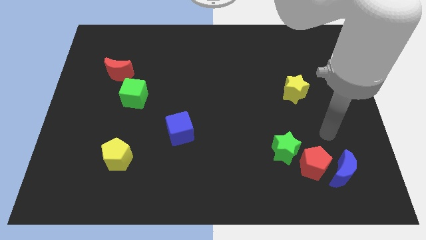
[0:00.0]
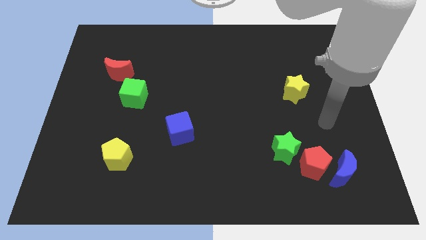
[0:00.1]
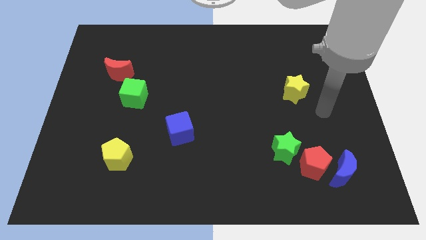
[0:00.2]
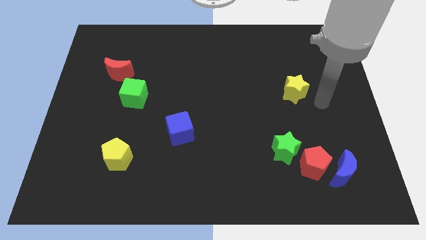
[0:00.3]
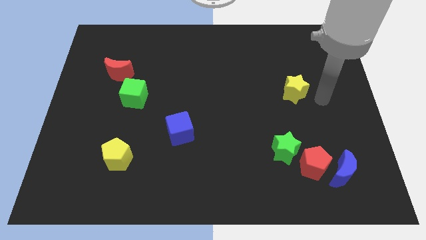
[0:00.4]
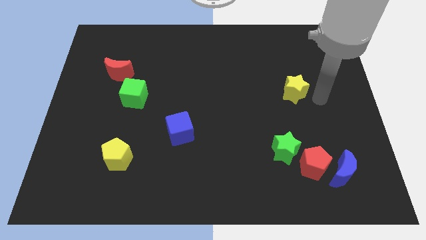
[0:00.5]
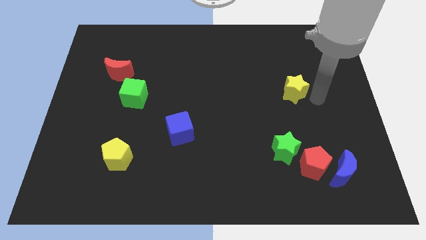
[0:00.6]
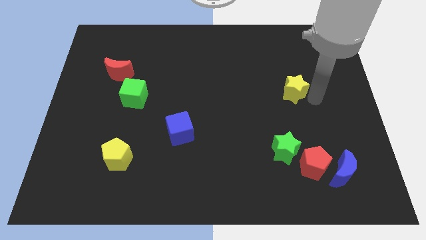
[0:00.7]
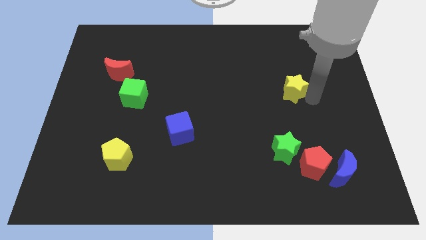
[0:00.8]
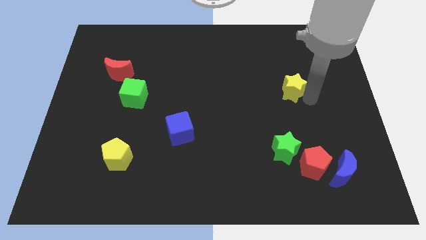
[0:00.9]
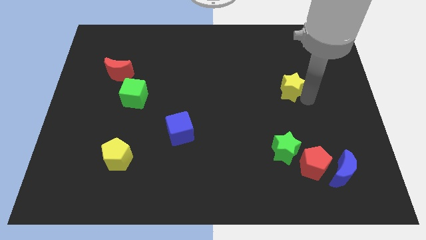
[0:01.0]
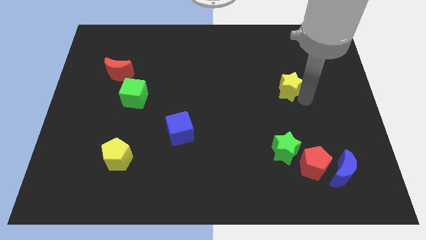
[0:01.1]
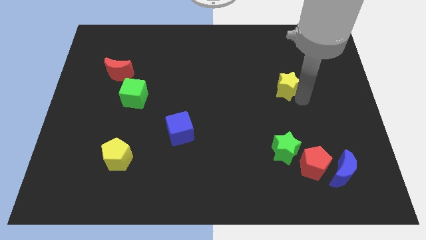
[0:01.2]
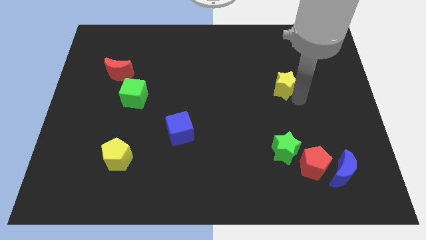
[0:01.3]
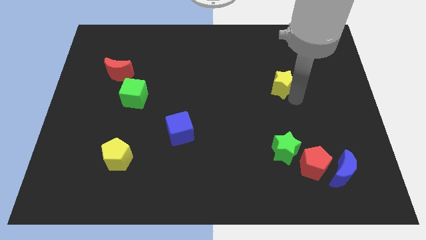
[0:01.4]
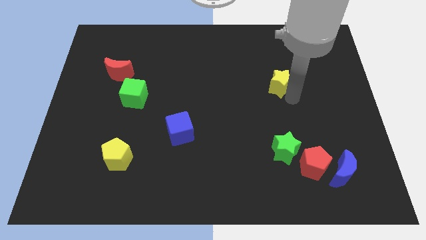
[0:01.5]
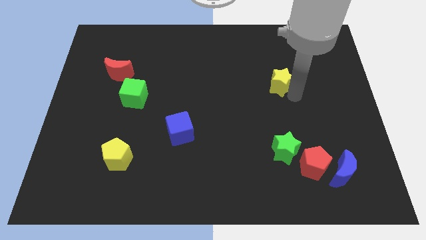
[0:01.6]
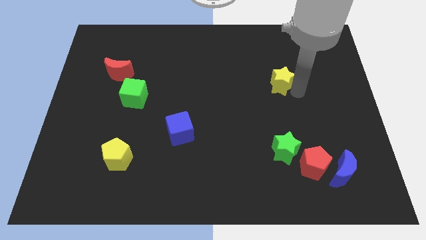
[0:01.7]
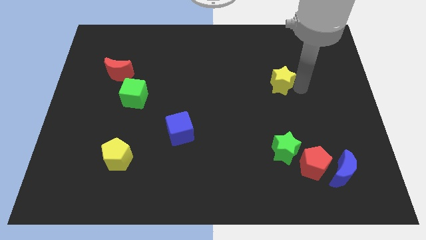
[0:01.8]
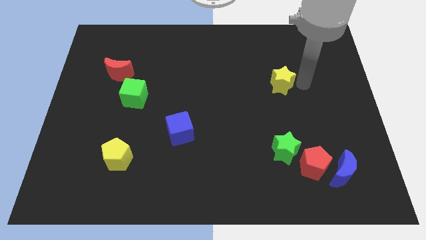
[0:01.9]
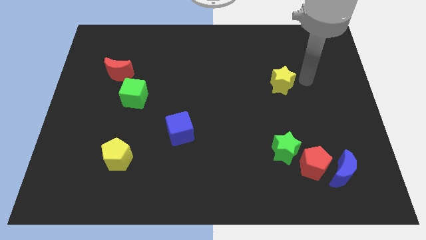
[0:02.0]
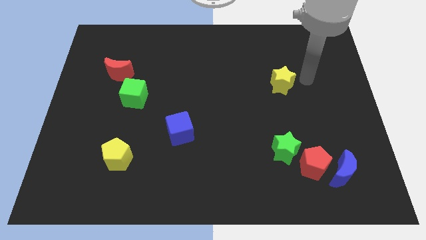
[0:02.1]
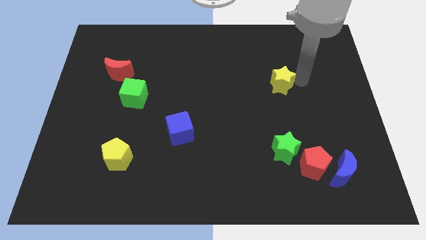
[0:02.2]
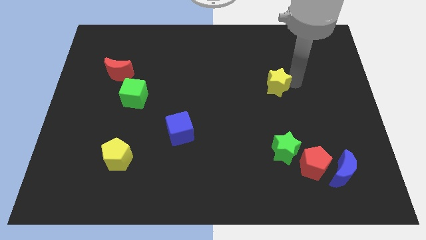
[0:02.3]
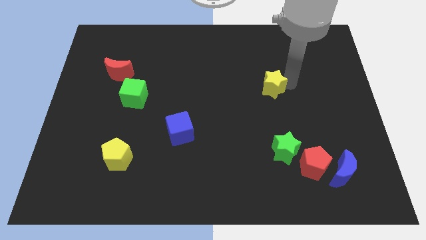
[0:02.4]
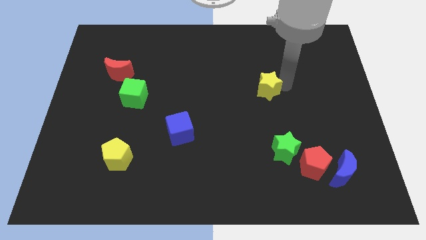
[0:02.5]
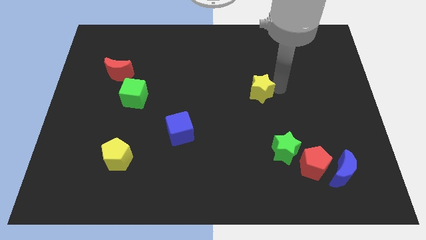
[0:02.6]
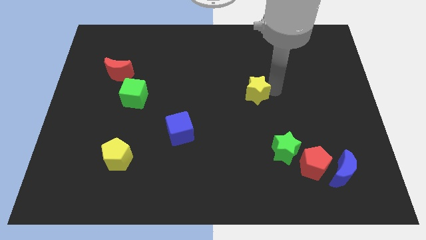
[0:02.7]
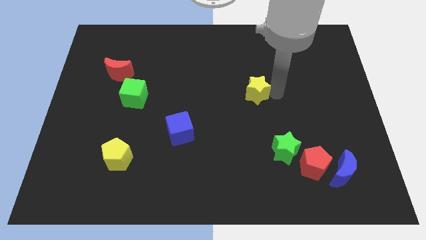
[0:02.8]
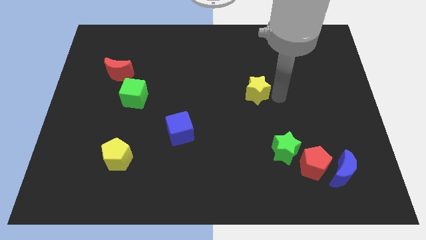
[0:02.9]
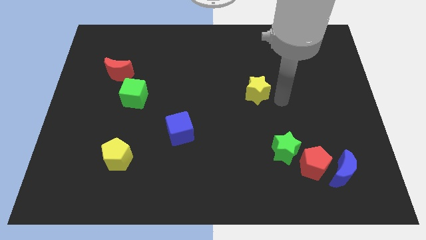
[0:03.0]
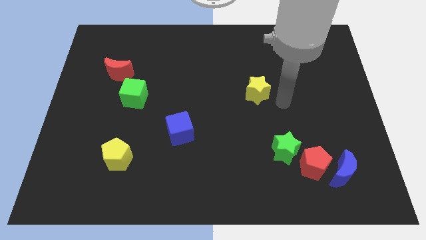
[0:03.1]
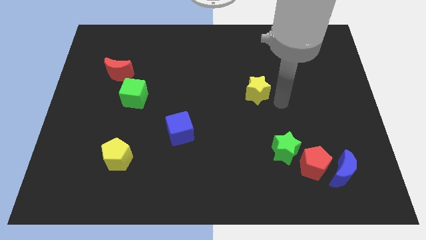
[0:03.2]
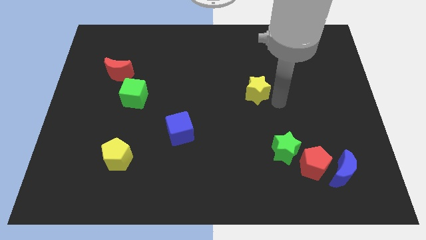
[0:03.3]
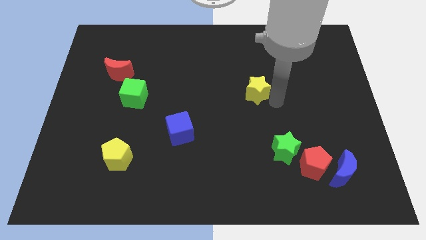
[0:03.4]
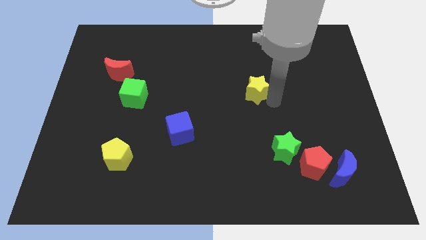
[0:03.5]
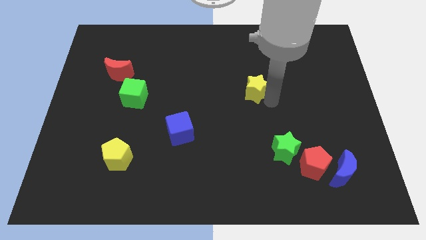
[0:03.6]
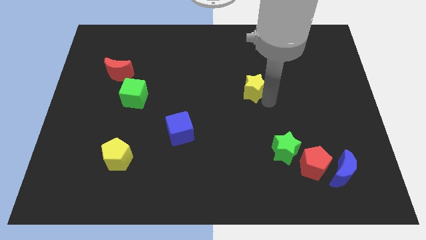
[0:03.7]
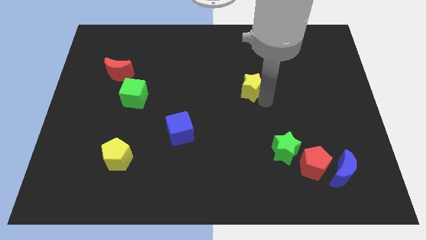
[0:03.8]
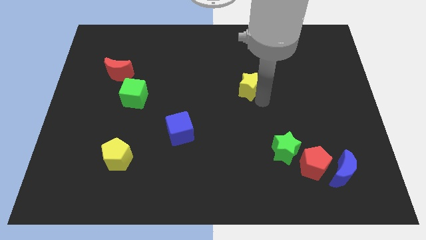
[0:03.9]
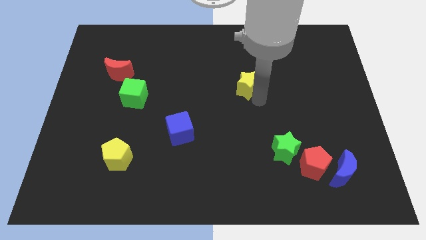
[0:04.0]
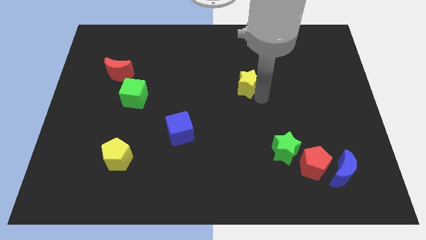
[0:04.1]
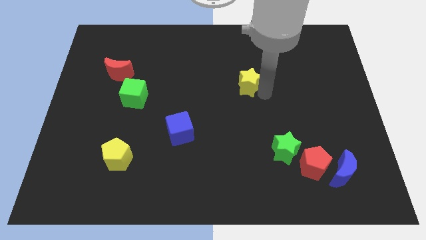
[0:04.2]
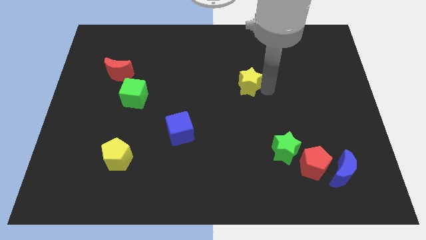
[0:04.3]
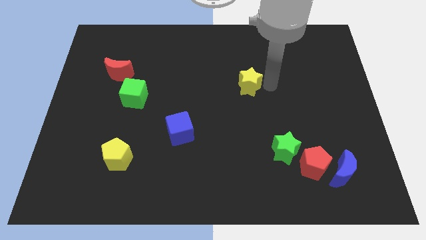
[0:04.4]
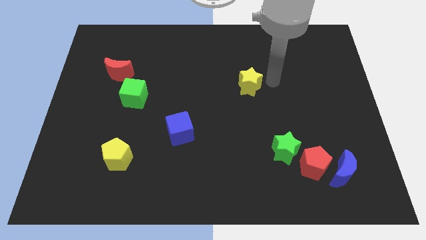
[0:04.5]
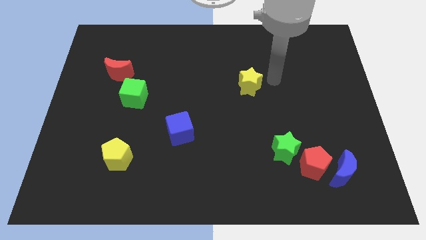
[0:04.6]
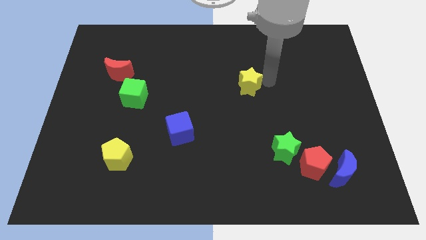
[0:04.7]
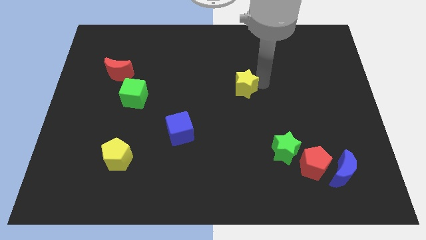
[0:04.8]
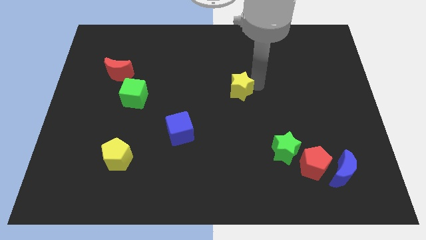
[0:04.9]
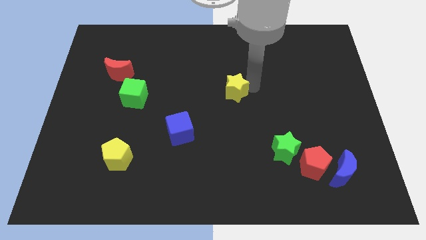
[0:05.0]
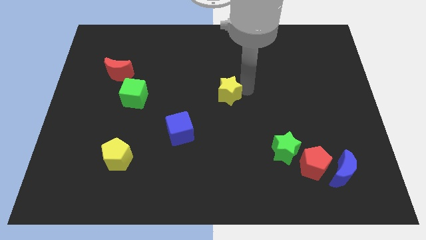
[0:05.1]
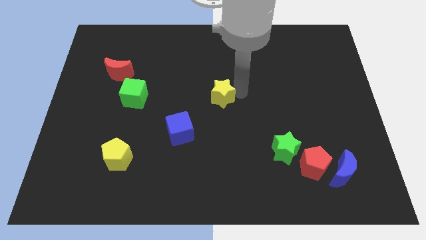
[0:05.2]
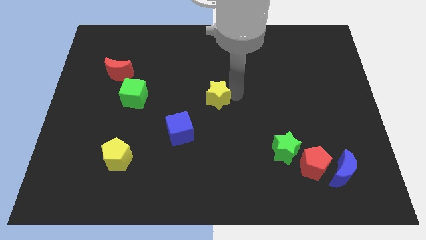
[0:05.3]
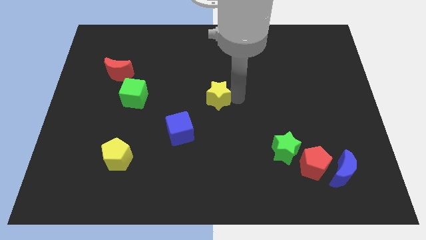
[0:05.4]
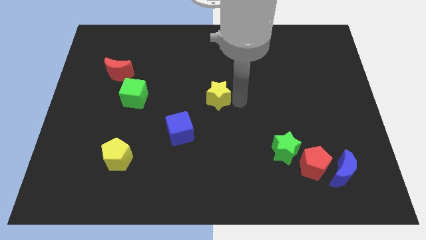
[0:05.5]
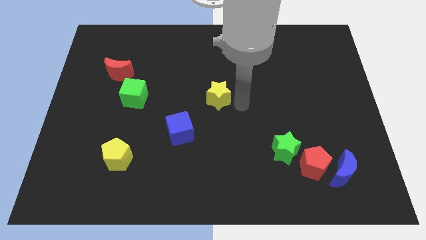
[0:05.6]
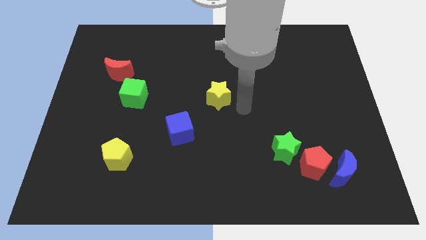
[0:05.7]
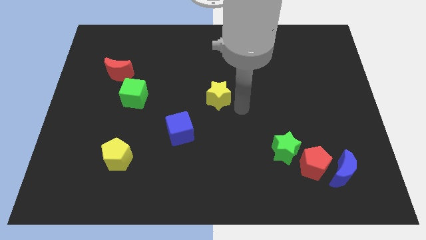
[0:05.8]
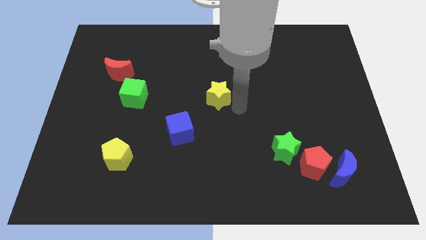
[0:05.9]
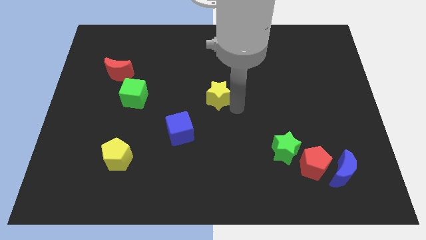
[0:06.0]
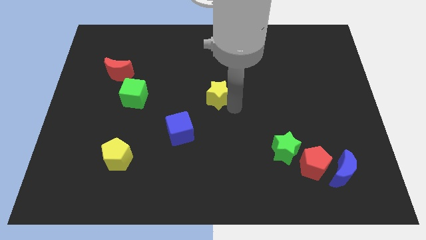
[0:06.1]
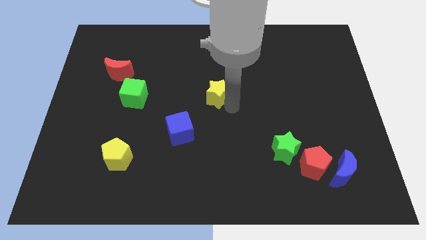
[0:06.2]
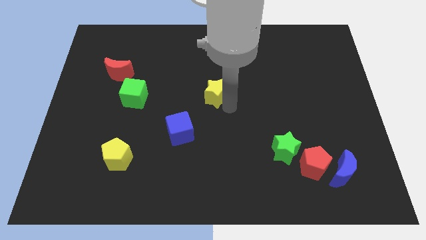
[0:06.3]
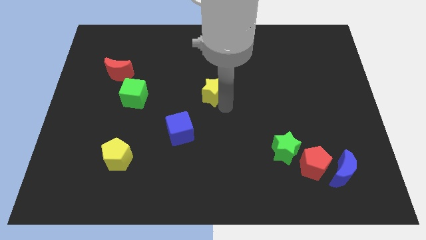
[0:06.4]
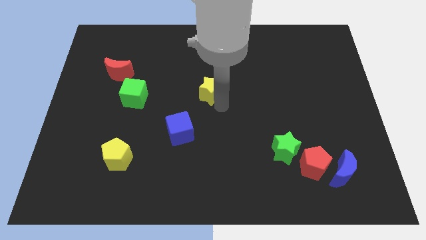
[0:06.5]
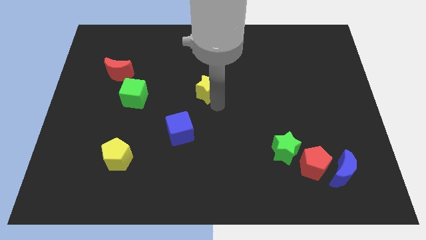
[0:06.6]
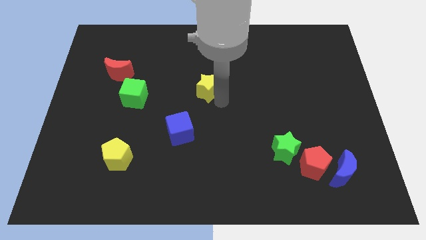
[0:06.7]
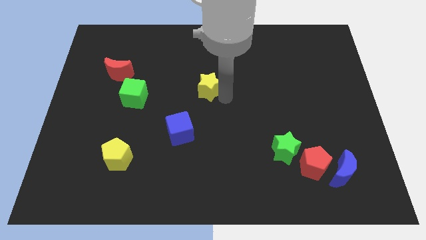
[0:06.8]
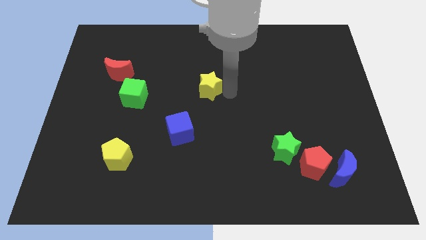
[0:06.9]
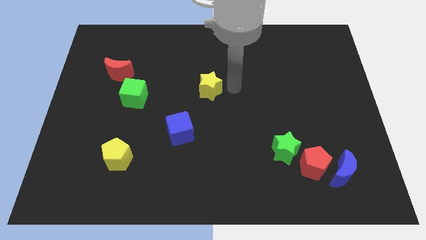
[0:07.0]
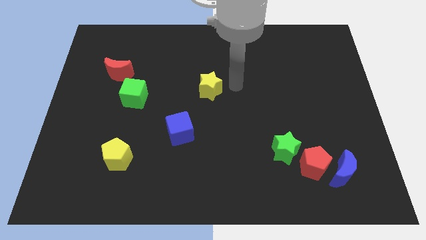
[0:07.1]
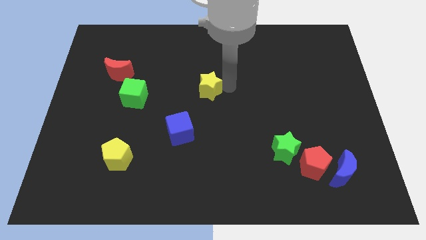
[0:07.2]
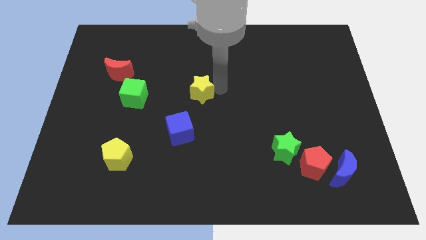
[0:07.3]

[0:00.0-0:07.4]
slide the yellow star just right of the green cube
